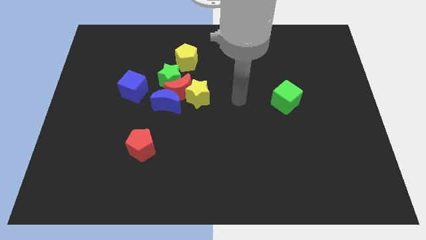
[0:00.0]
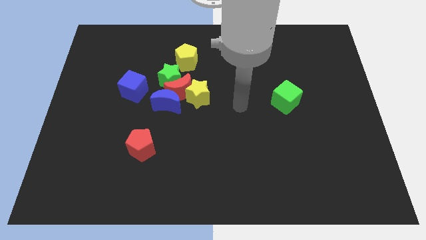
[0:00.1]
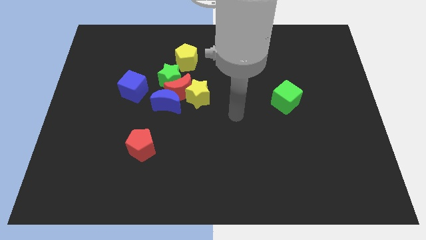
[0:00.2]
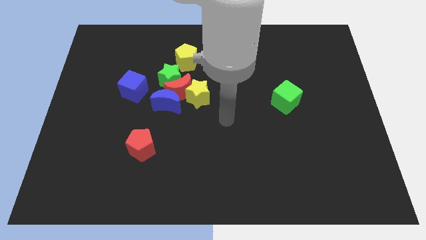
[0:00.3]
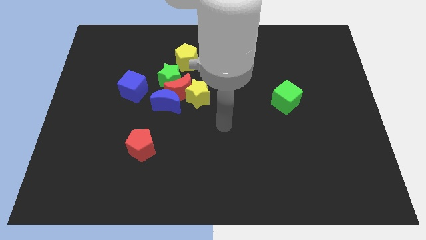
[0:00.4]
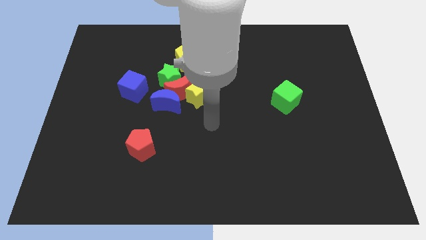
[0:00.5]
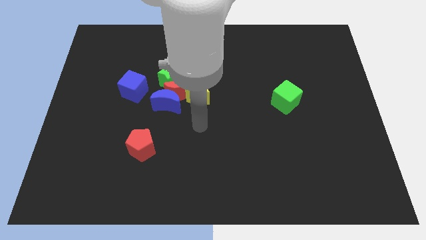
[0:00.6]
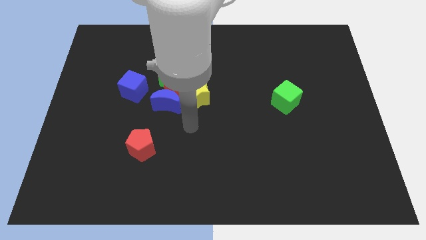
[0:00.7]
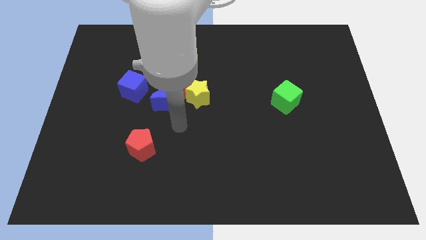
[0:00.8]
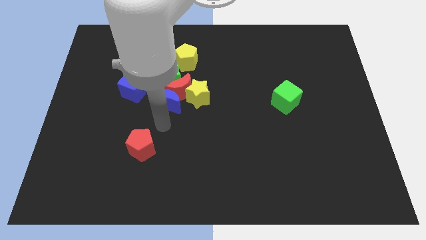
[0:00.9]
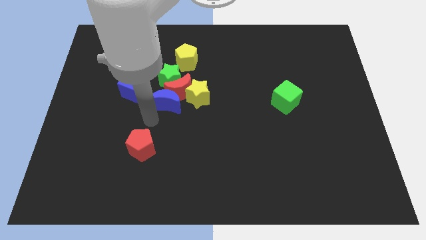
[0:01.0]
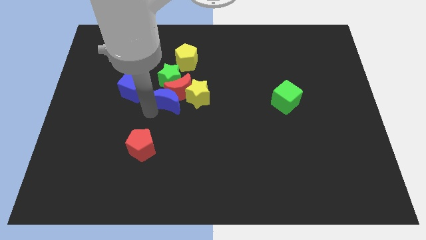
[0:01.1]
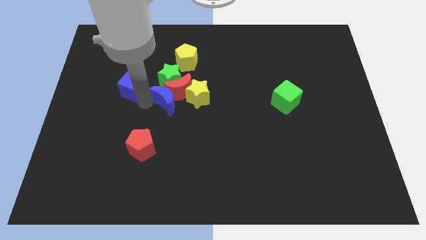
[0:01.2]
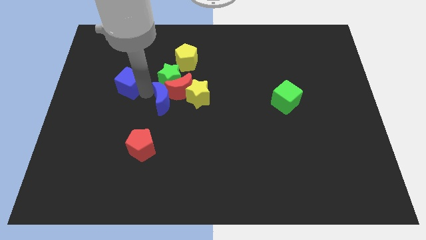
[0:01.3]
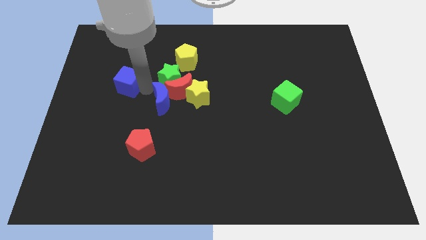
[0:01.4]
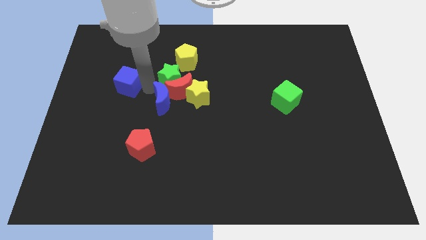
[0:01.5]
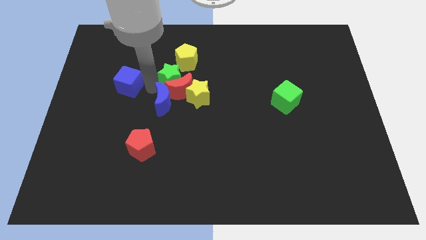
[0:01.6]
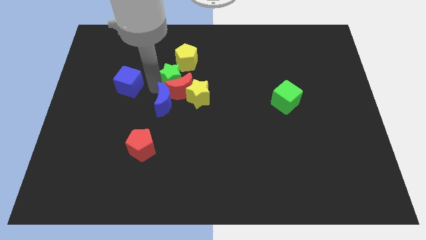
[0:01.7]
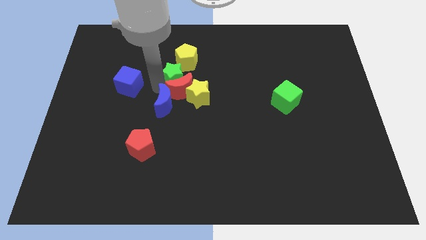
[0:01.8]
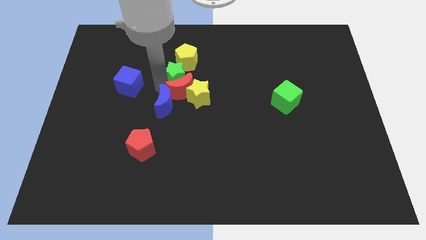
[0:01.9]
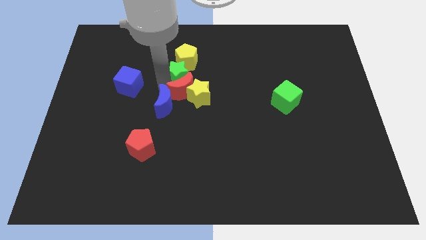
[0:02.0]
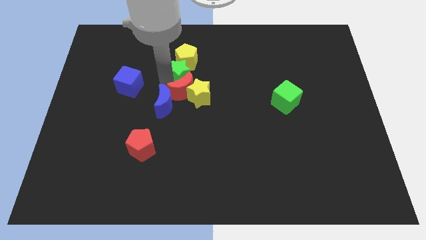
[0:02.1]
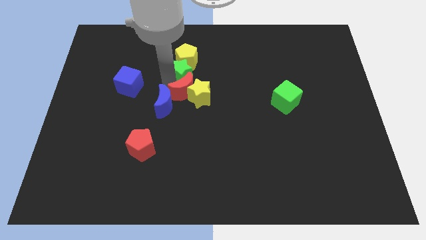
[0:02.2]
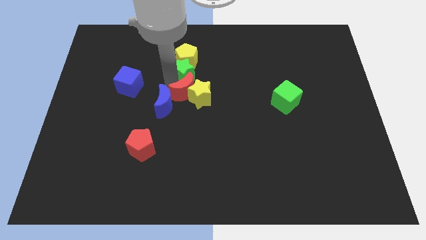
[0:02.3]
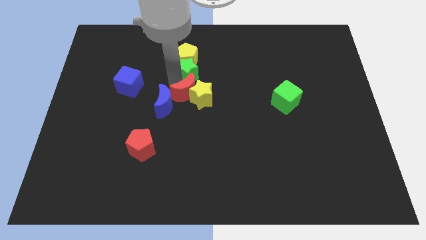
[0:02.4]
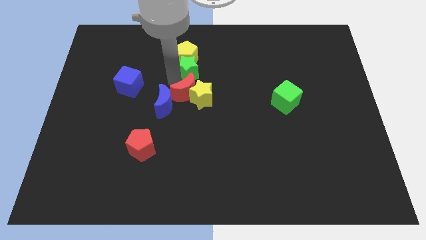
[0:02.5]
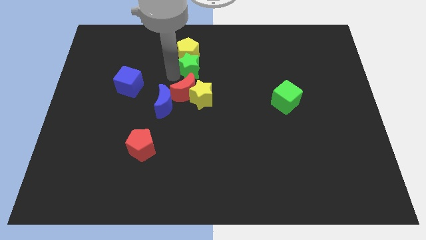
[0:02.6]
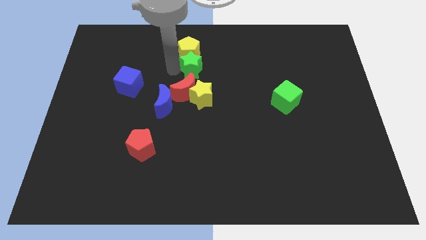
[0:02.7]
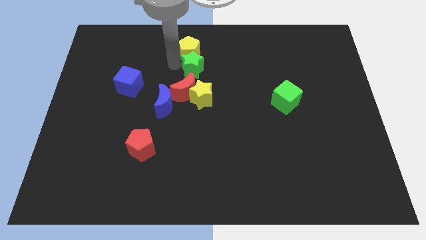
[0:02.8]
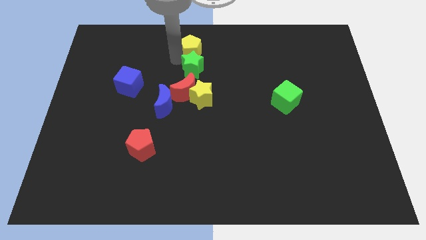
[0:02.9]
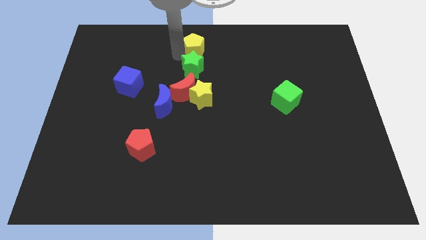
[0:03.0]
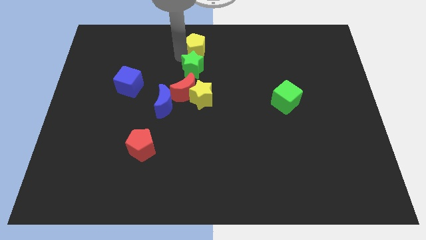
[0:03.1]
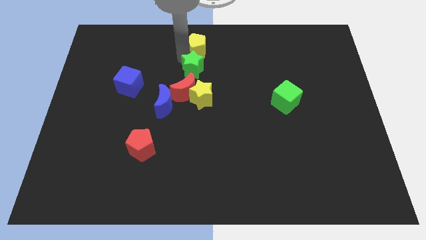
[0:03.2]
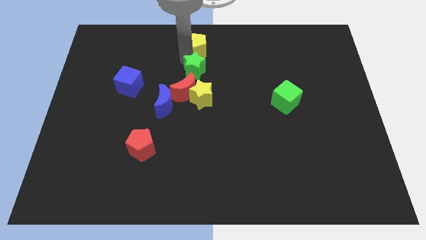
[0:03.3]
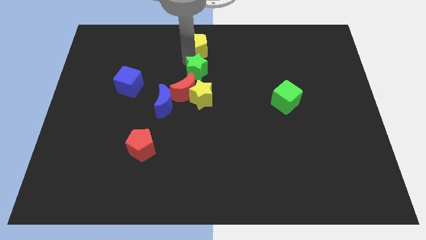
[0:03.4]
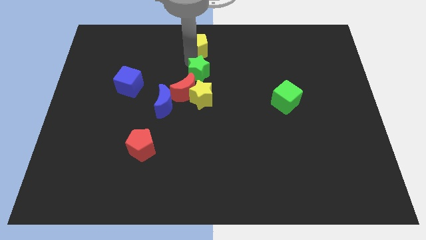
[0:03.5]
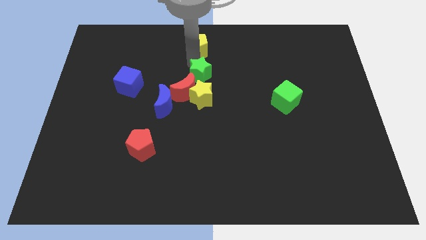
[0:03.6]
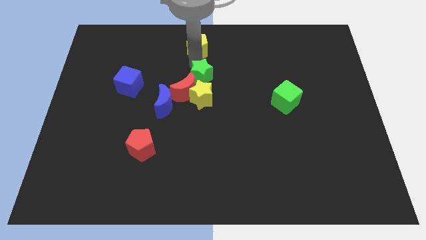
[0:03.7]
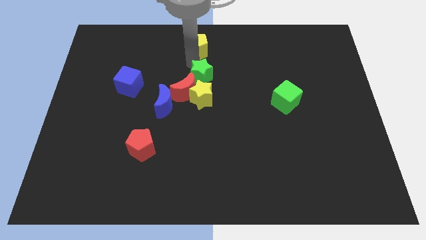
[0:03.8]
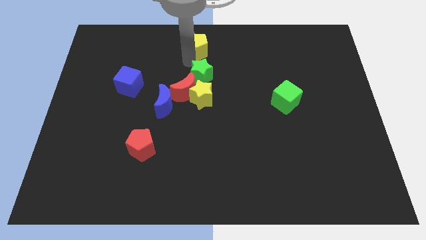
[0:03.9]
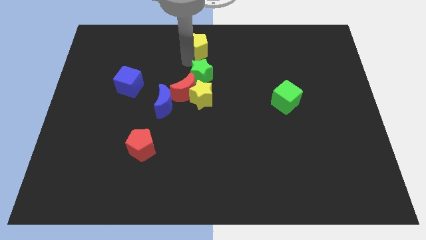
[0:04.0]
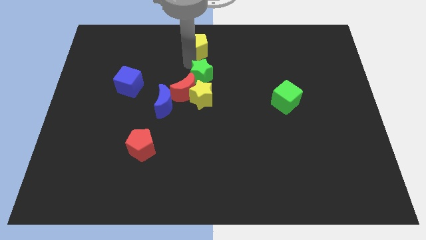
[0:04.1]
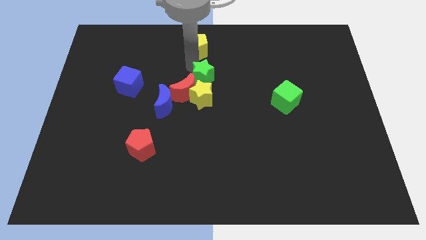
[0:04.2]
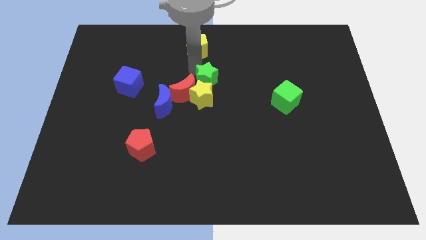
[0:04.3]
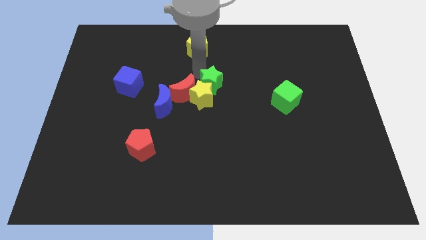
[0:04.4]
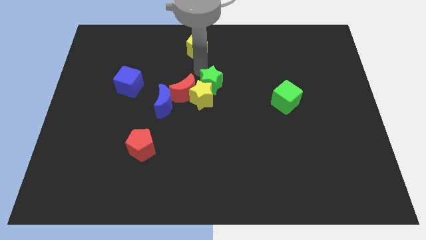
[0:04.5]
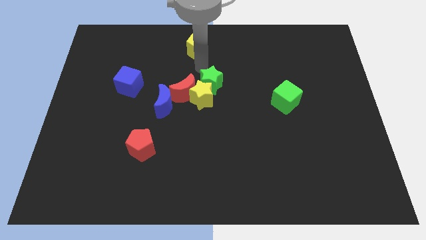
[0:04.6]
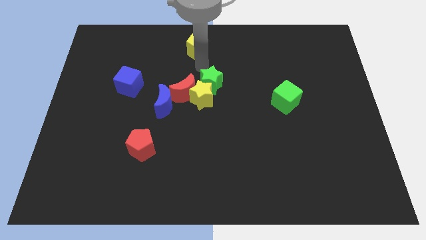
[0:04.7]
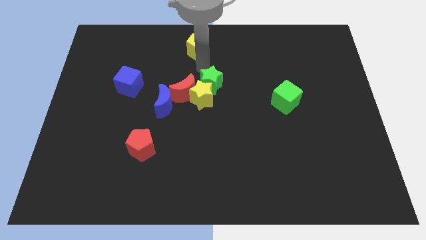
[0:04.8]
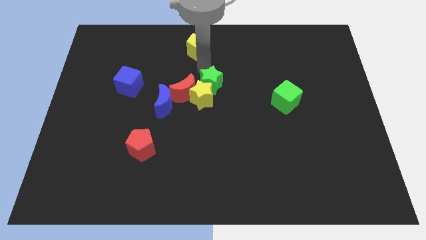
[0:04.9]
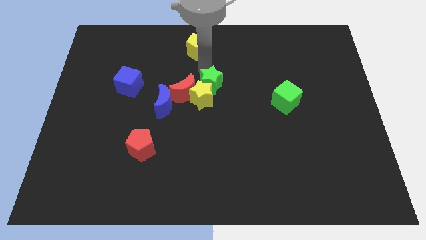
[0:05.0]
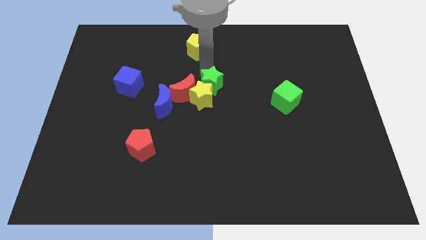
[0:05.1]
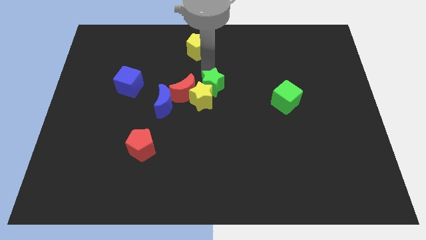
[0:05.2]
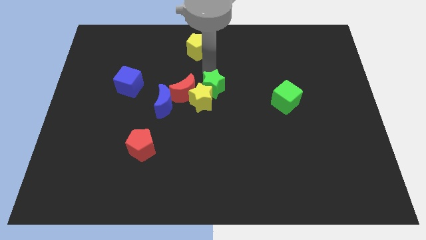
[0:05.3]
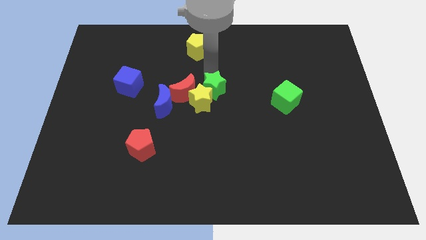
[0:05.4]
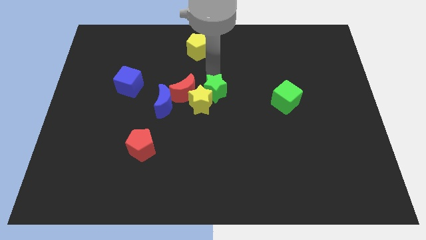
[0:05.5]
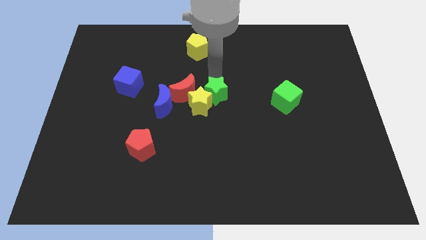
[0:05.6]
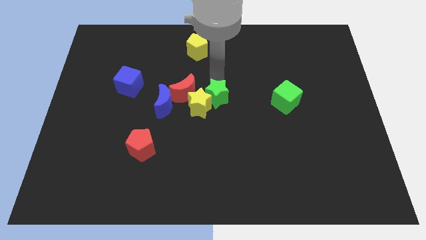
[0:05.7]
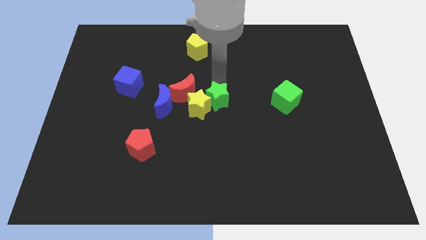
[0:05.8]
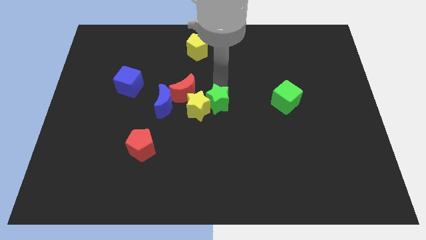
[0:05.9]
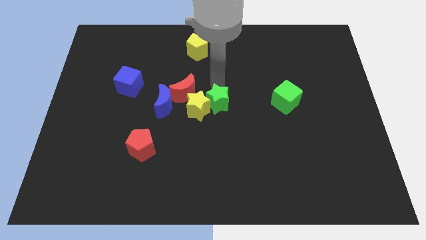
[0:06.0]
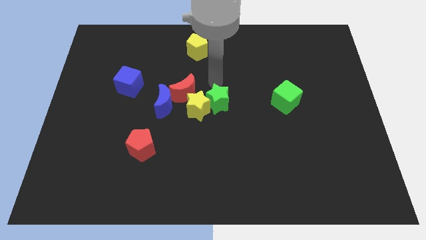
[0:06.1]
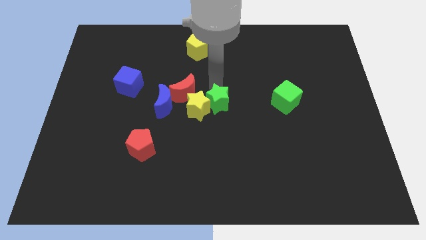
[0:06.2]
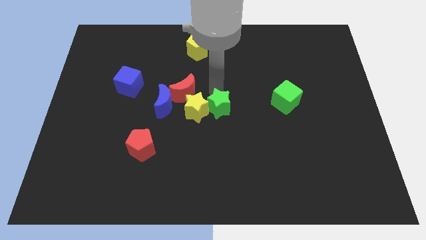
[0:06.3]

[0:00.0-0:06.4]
put the green star to the bottom right side of the yellow star
